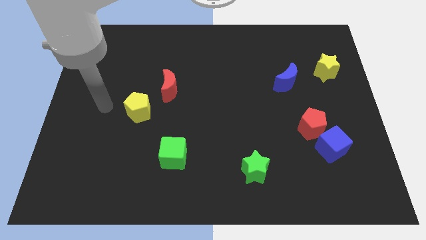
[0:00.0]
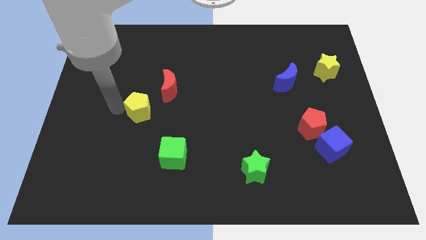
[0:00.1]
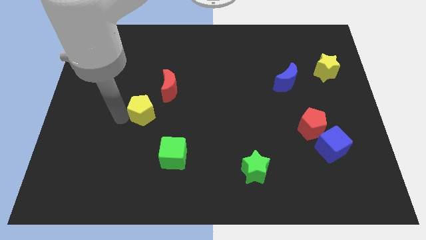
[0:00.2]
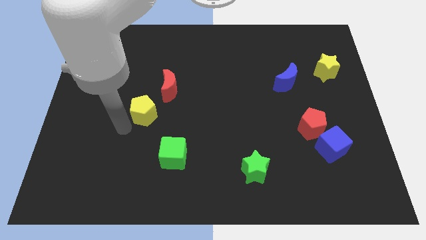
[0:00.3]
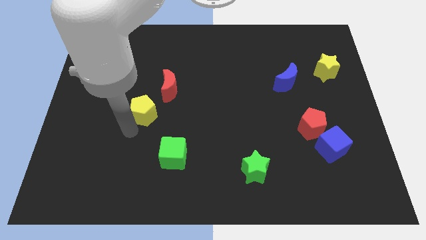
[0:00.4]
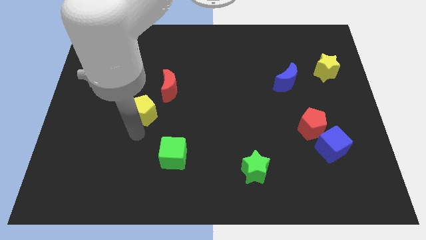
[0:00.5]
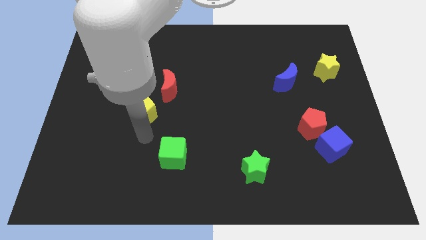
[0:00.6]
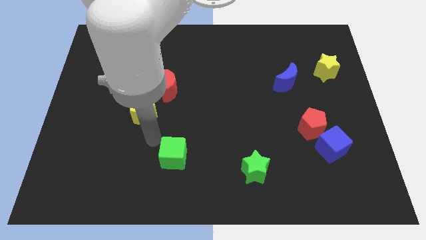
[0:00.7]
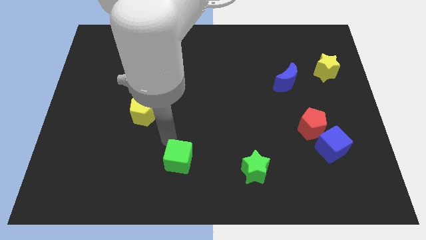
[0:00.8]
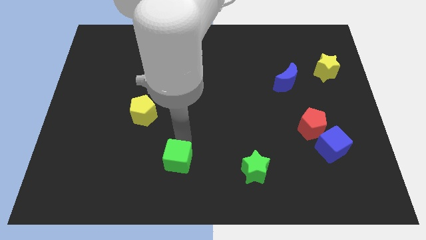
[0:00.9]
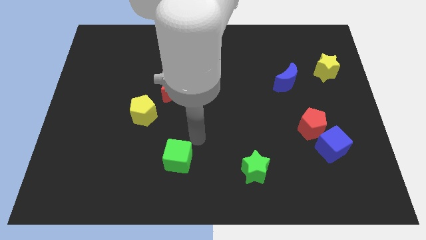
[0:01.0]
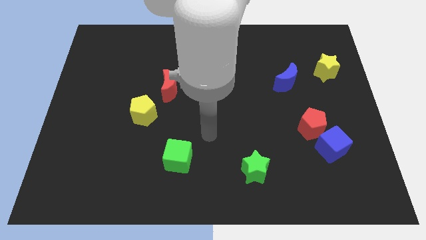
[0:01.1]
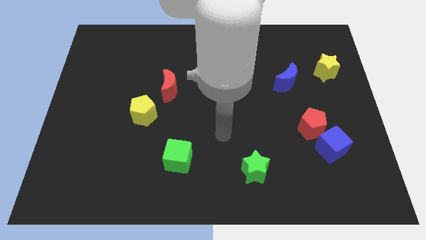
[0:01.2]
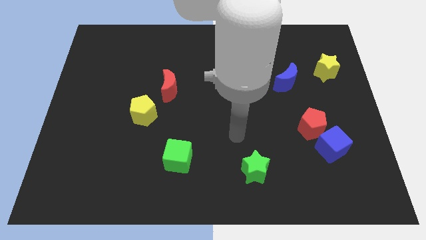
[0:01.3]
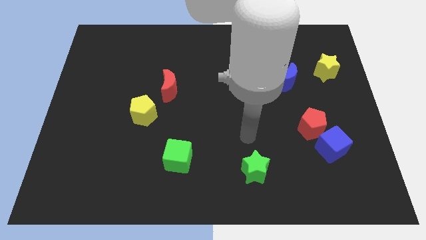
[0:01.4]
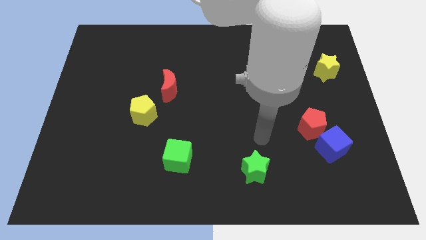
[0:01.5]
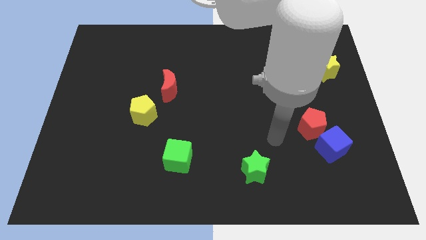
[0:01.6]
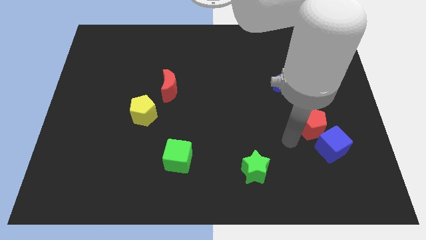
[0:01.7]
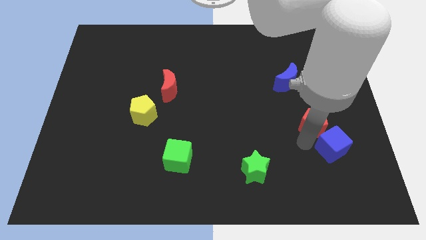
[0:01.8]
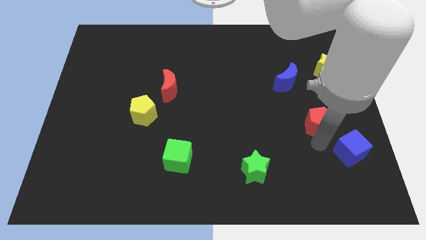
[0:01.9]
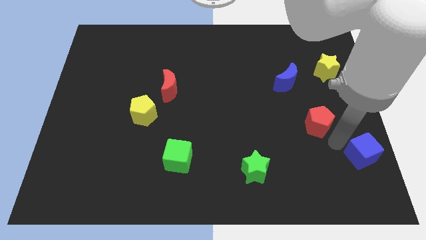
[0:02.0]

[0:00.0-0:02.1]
move the red pentagon away from the blue cube

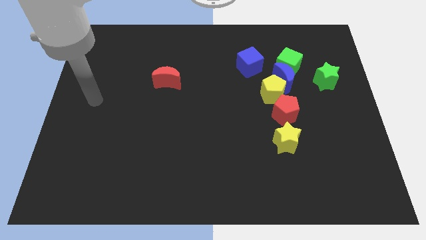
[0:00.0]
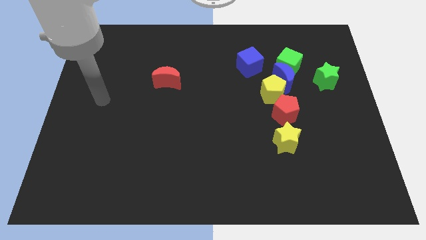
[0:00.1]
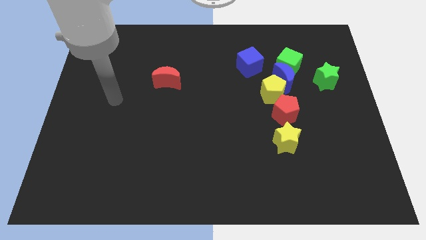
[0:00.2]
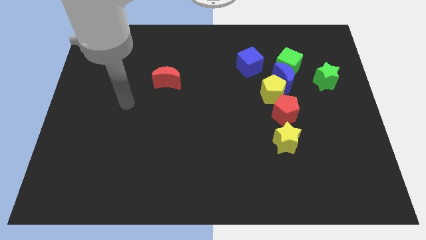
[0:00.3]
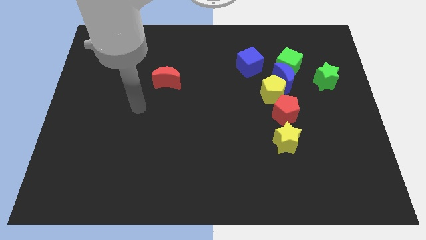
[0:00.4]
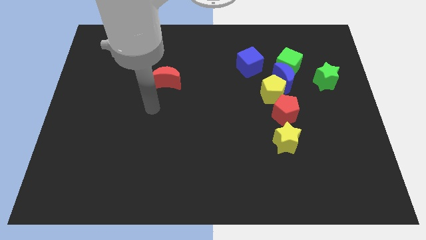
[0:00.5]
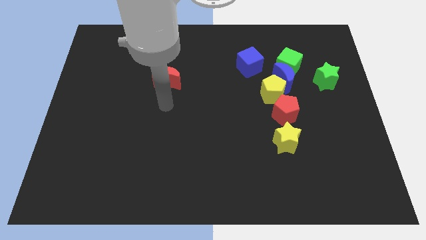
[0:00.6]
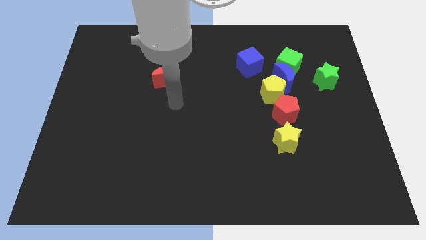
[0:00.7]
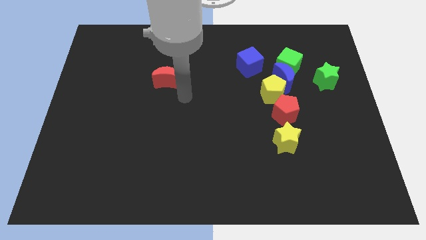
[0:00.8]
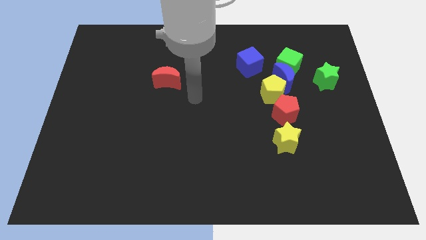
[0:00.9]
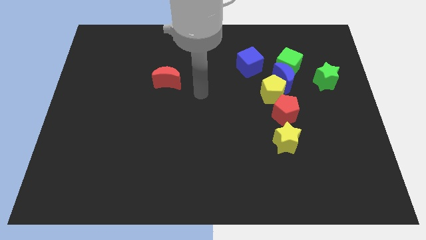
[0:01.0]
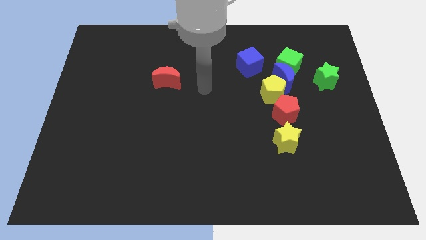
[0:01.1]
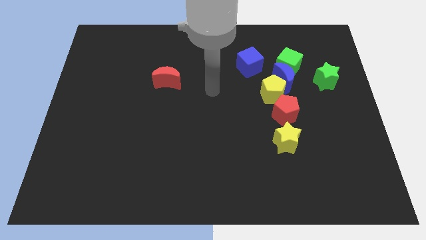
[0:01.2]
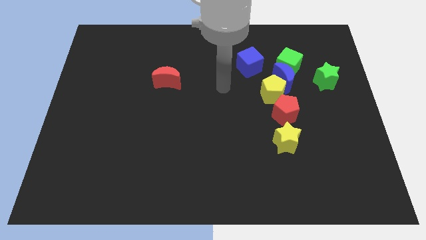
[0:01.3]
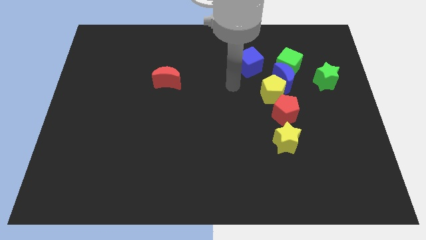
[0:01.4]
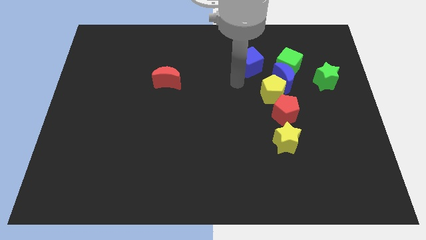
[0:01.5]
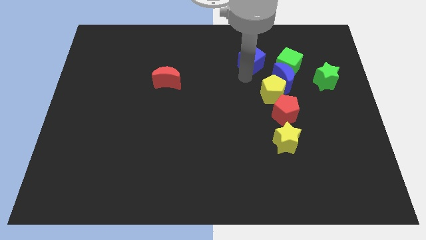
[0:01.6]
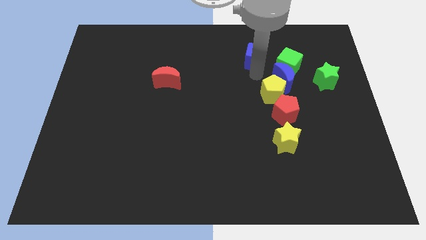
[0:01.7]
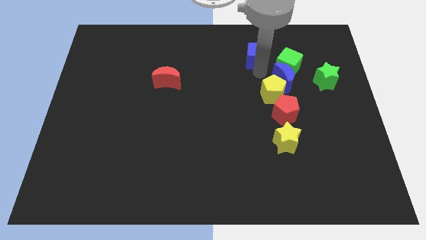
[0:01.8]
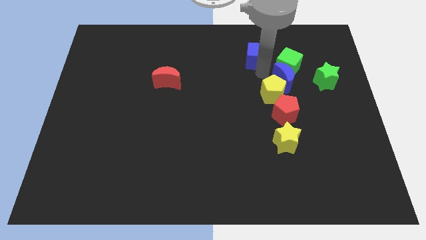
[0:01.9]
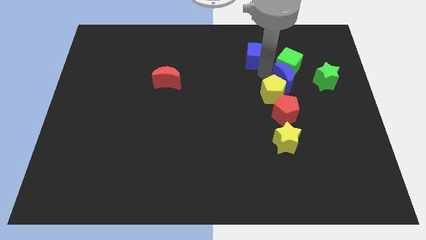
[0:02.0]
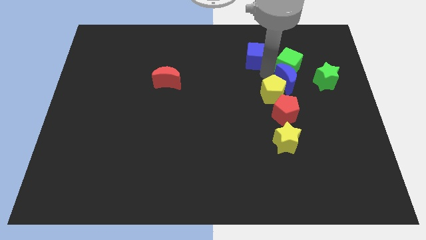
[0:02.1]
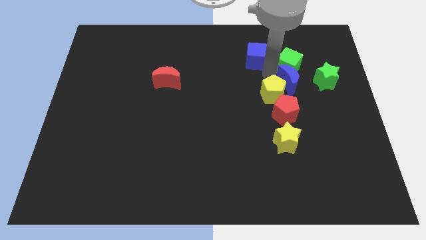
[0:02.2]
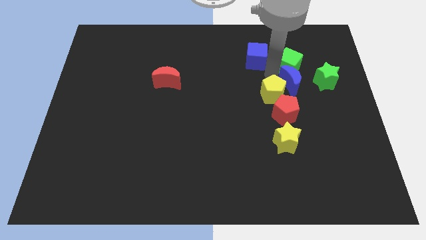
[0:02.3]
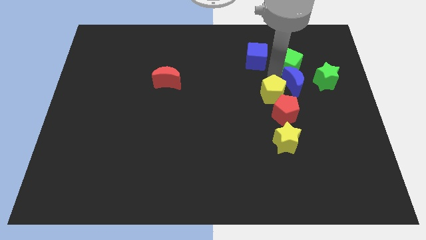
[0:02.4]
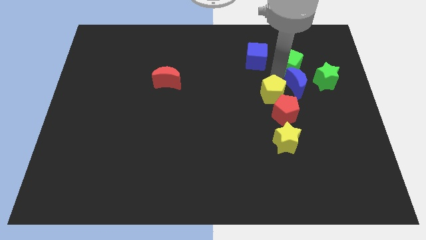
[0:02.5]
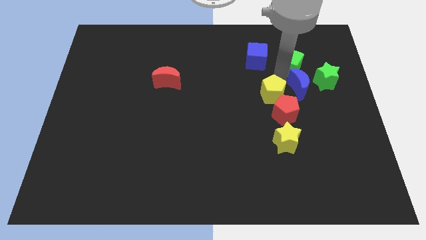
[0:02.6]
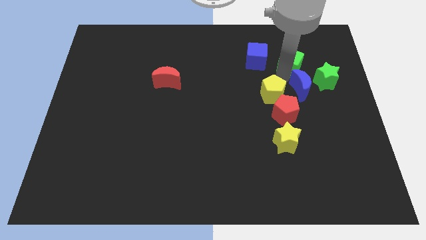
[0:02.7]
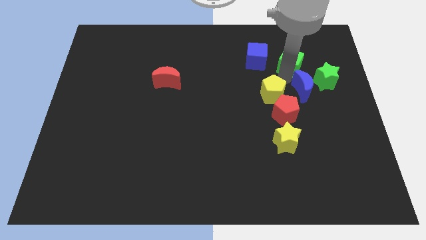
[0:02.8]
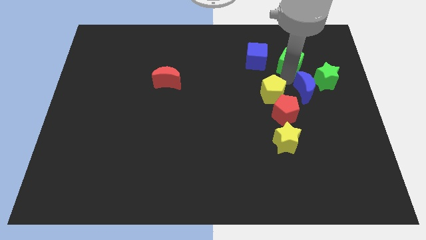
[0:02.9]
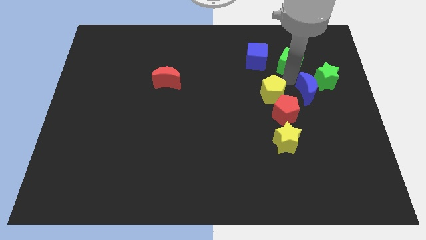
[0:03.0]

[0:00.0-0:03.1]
move the blue moon away from the green cube, yellow pentagon, and blue cube

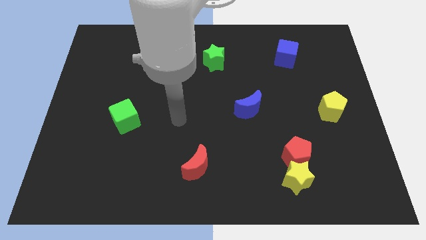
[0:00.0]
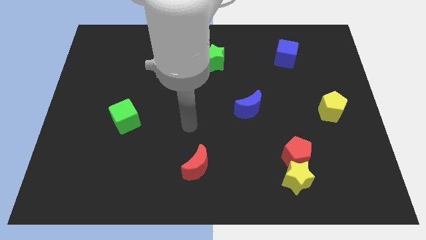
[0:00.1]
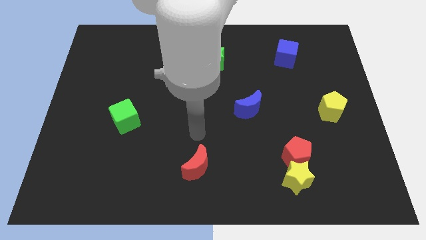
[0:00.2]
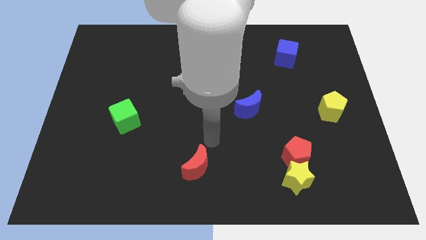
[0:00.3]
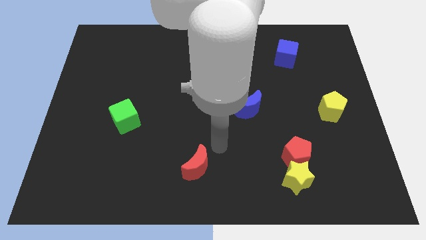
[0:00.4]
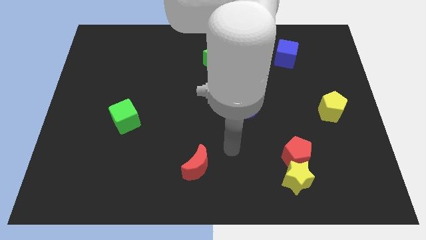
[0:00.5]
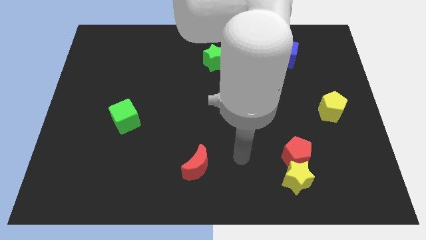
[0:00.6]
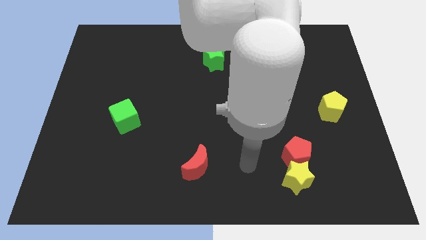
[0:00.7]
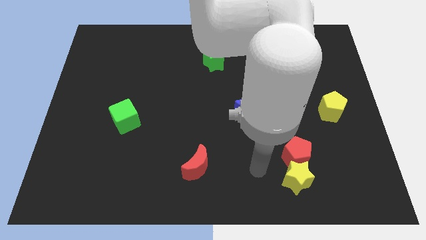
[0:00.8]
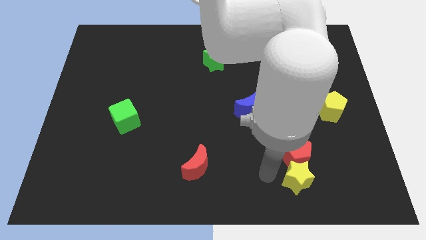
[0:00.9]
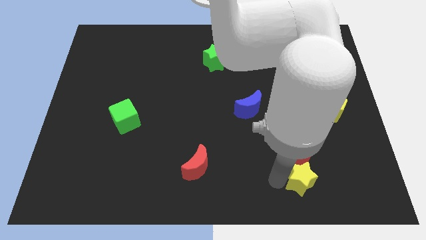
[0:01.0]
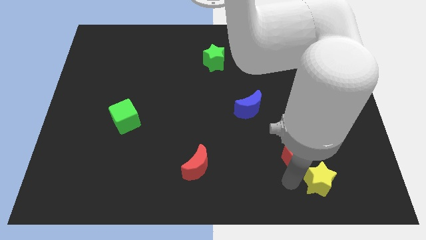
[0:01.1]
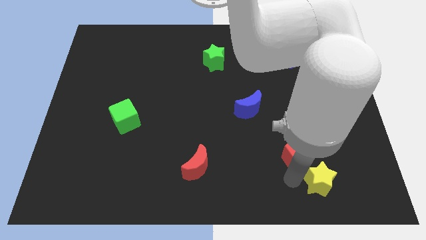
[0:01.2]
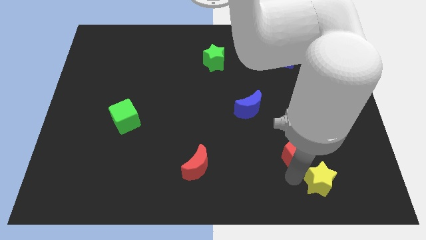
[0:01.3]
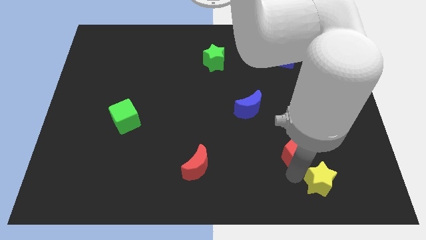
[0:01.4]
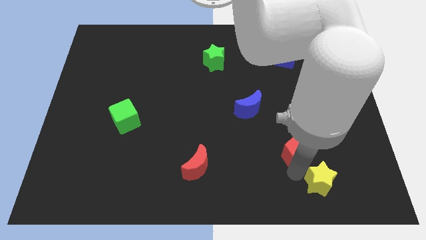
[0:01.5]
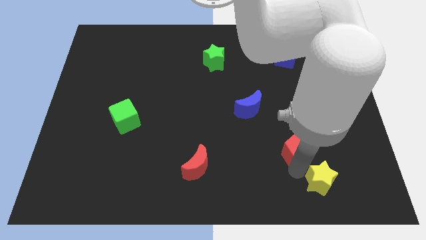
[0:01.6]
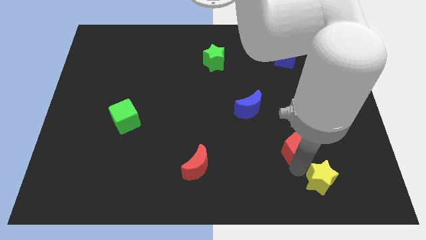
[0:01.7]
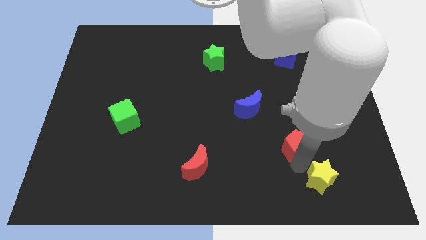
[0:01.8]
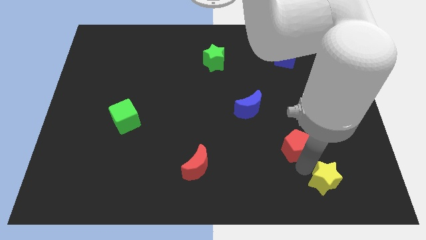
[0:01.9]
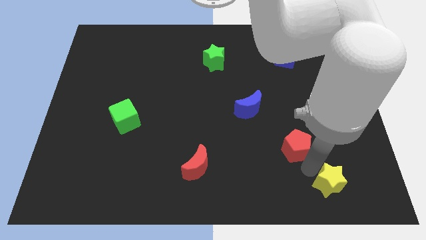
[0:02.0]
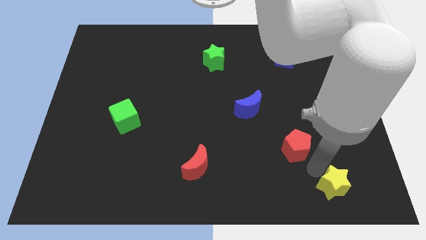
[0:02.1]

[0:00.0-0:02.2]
separate the red pentagon from the yellow star

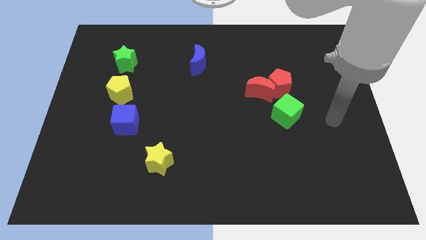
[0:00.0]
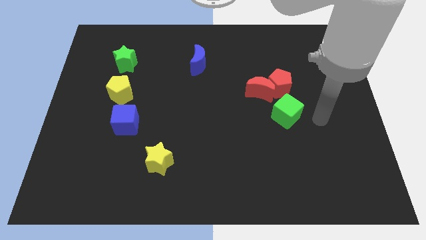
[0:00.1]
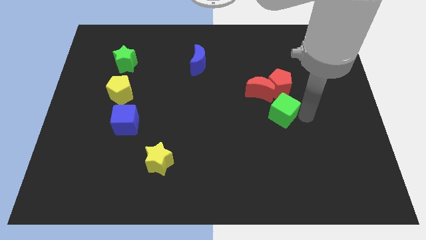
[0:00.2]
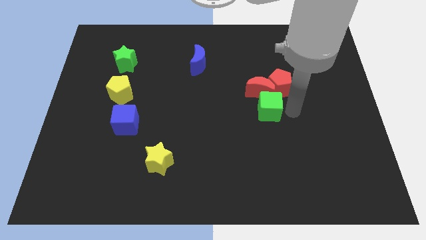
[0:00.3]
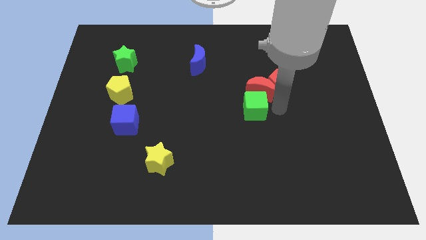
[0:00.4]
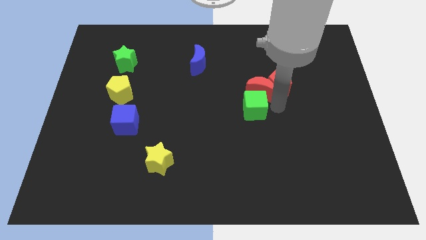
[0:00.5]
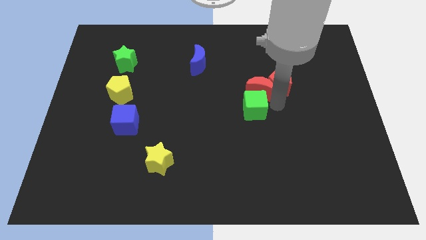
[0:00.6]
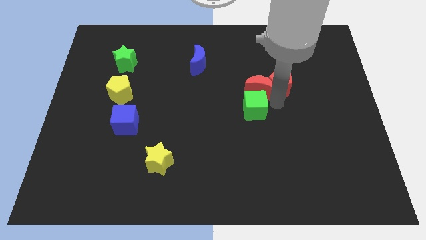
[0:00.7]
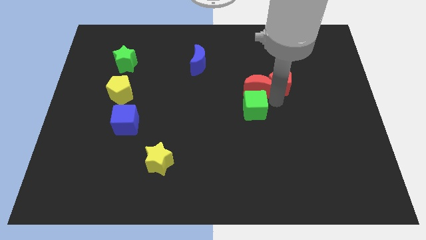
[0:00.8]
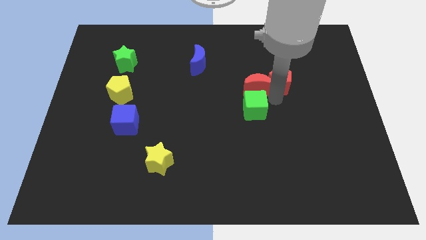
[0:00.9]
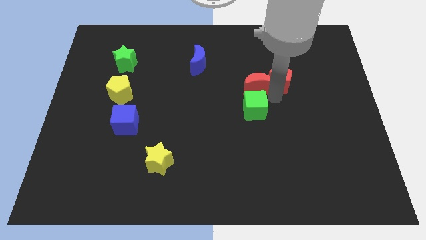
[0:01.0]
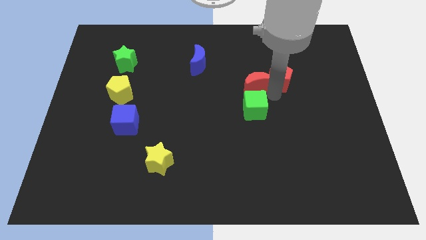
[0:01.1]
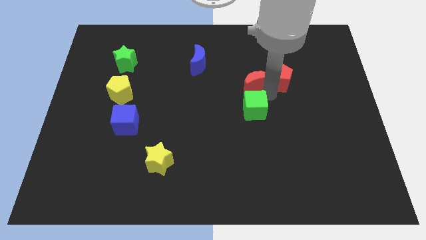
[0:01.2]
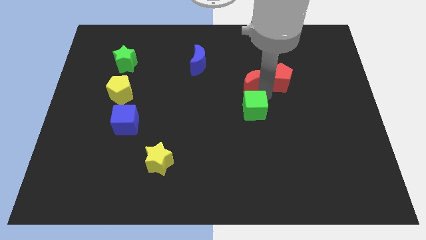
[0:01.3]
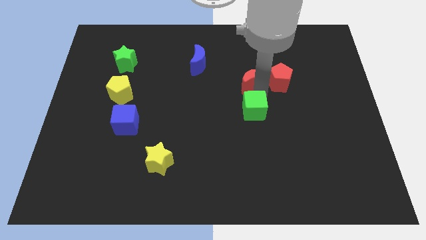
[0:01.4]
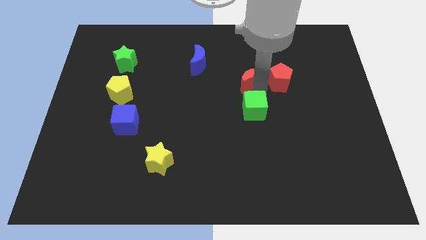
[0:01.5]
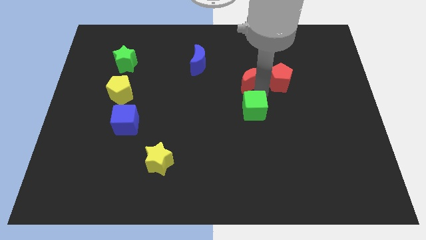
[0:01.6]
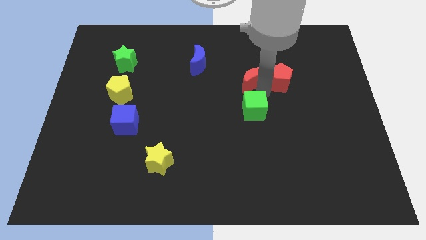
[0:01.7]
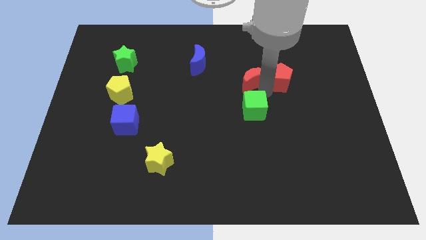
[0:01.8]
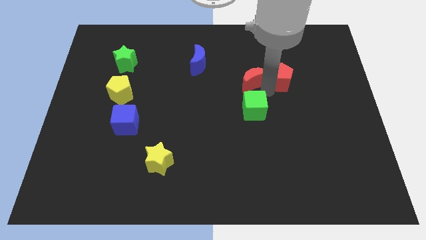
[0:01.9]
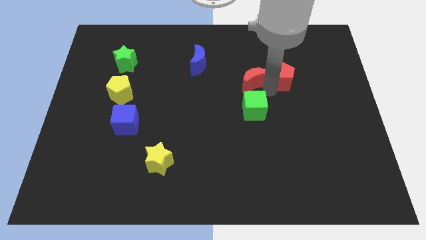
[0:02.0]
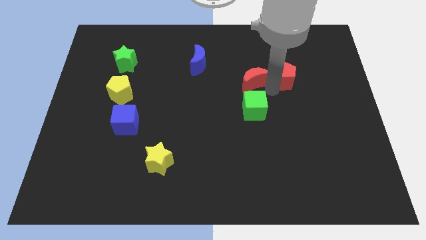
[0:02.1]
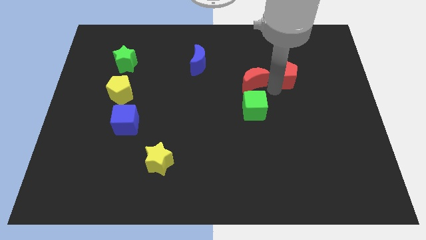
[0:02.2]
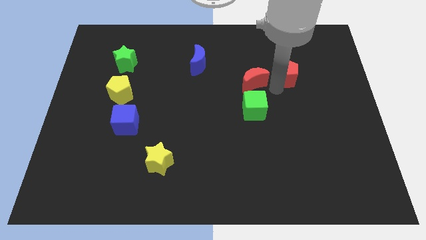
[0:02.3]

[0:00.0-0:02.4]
pull the red pentagon apart from the red moon and green cube
